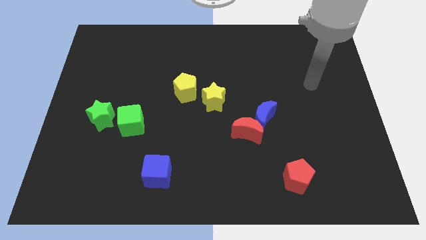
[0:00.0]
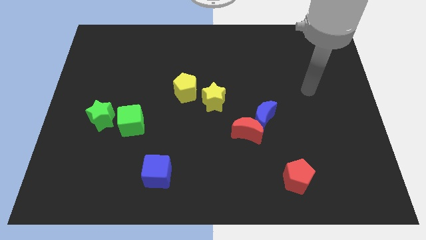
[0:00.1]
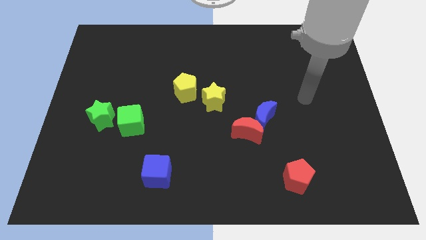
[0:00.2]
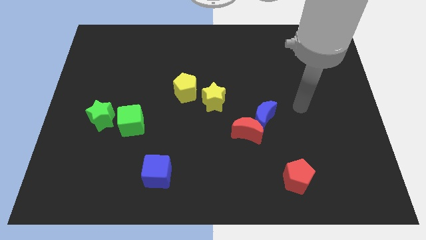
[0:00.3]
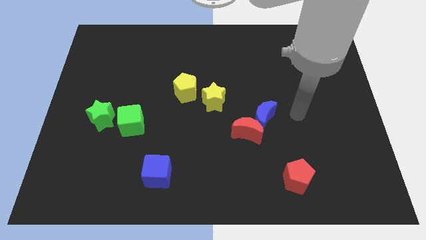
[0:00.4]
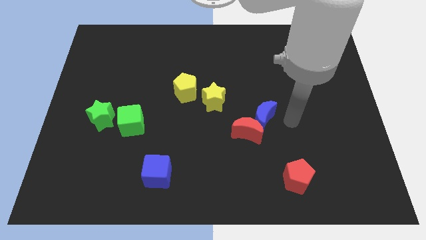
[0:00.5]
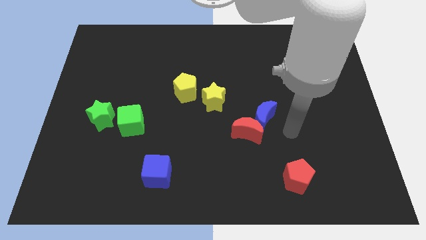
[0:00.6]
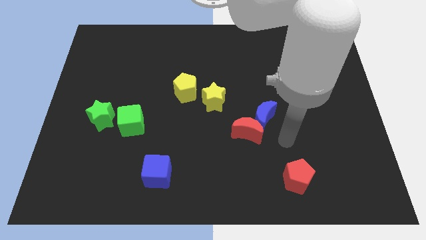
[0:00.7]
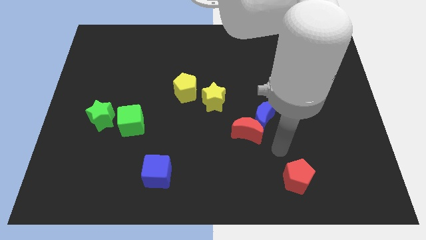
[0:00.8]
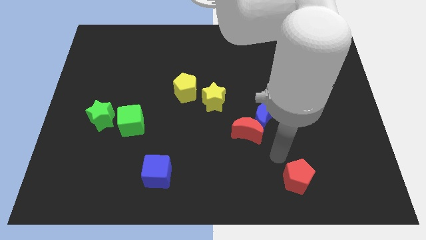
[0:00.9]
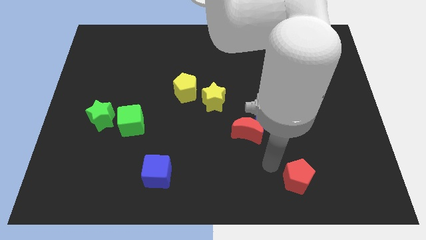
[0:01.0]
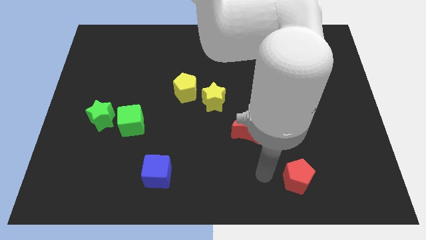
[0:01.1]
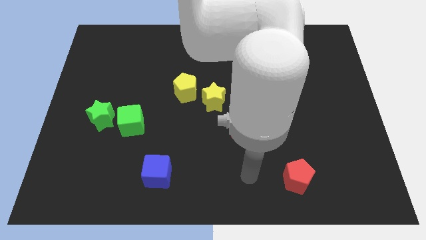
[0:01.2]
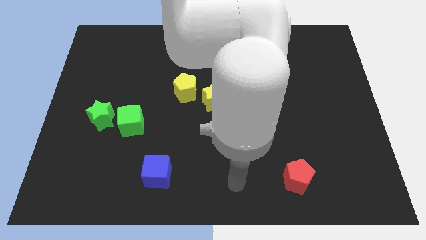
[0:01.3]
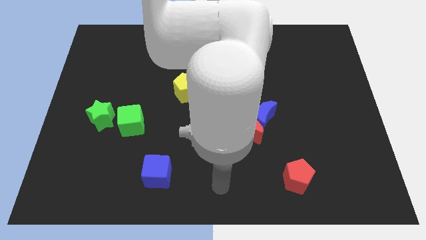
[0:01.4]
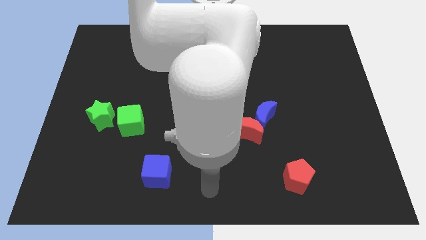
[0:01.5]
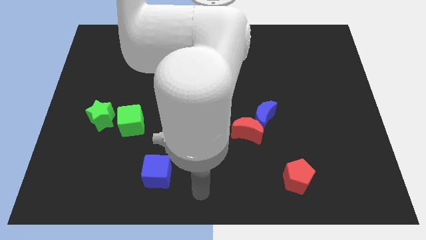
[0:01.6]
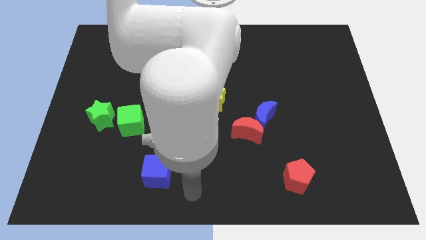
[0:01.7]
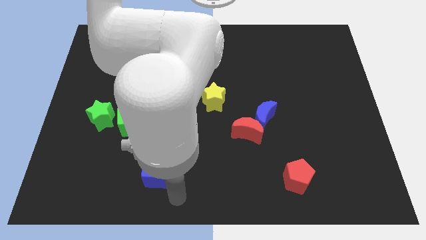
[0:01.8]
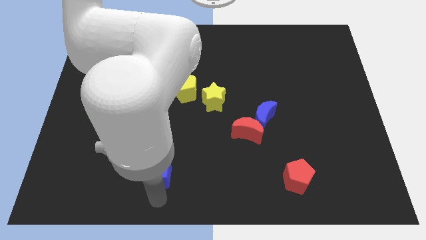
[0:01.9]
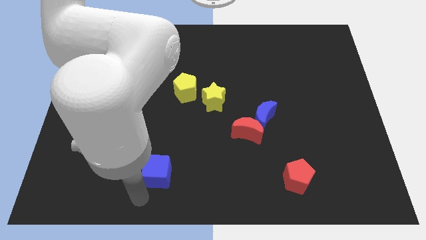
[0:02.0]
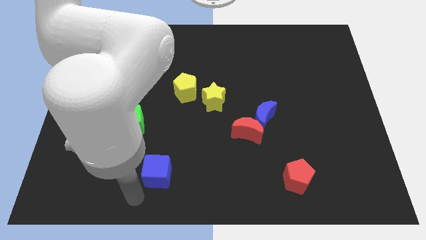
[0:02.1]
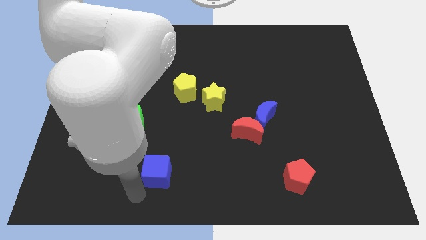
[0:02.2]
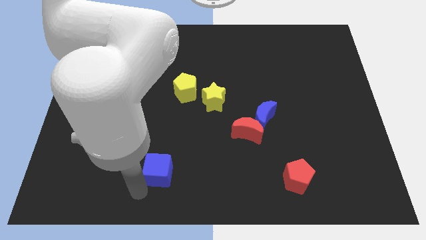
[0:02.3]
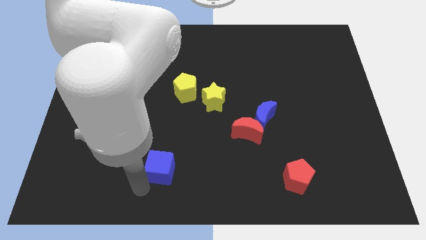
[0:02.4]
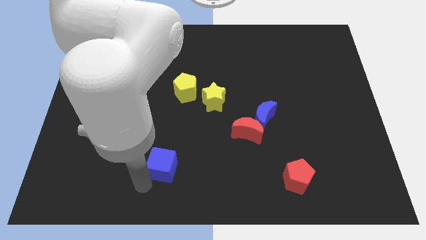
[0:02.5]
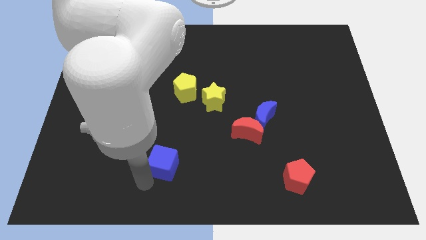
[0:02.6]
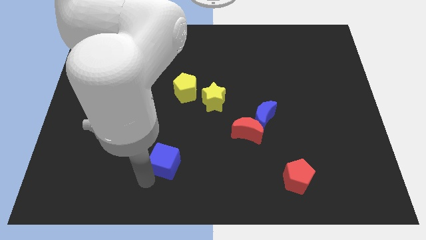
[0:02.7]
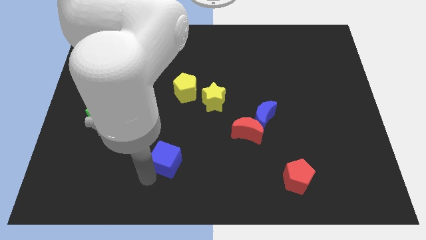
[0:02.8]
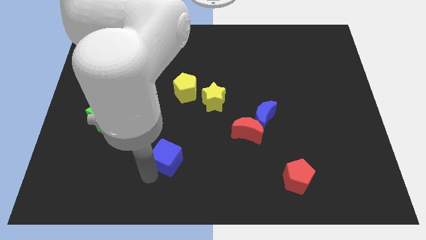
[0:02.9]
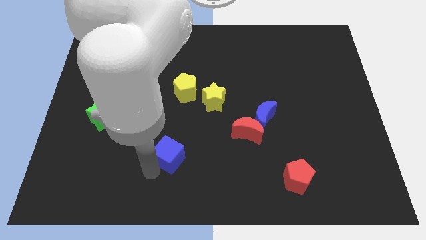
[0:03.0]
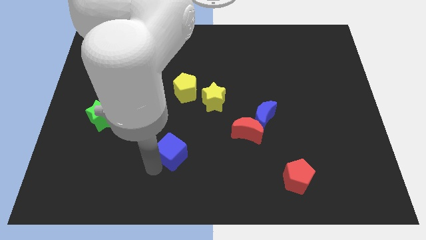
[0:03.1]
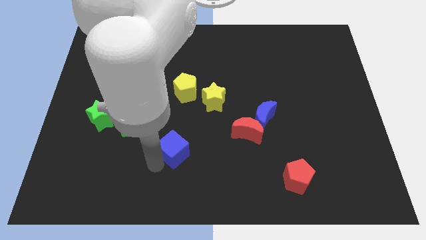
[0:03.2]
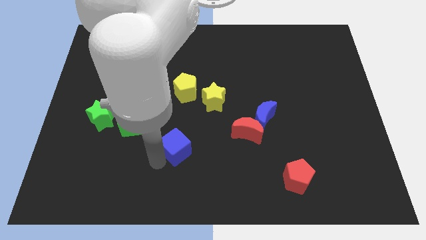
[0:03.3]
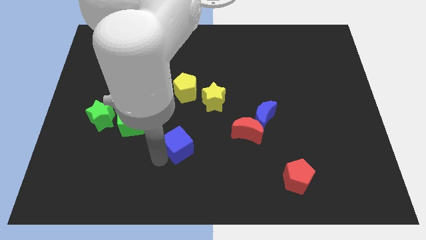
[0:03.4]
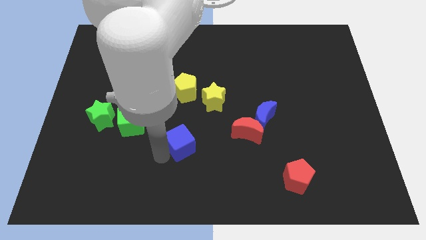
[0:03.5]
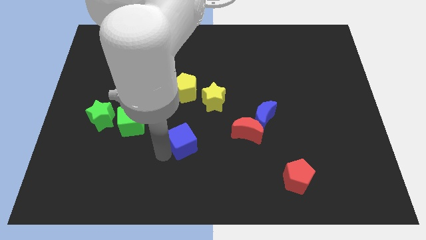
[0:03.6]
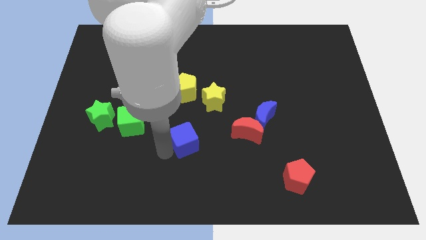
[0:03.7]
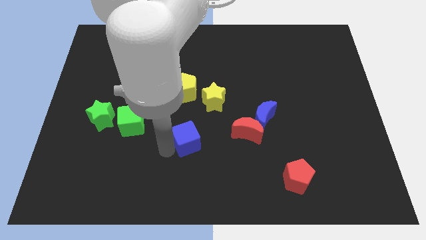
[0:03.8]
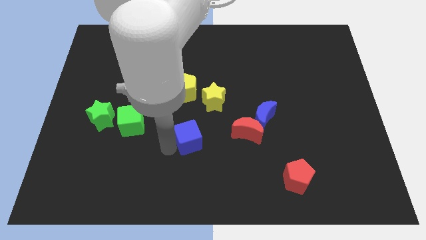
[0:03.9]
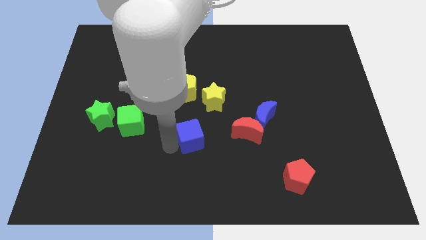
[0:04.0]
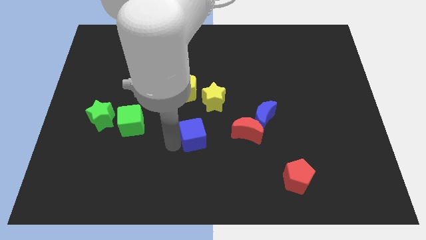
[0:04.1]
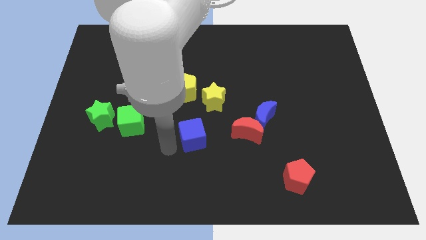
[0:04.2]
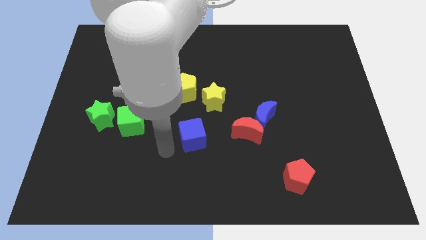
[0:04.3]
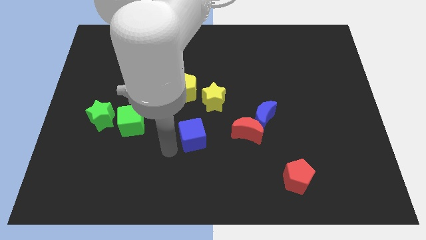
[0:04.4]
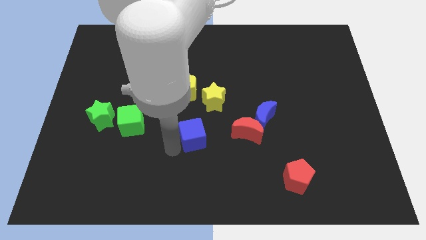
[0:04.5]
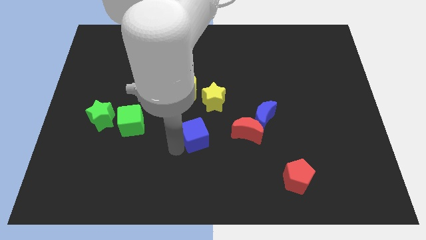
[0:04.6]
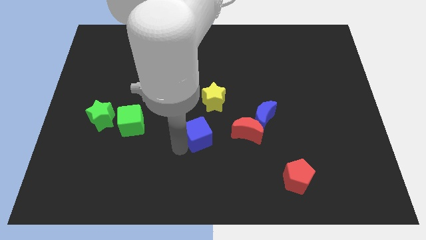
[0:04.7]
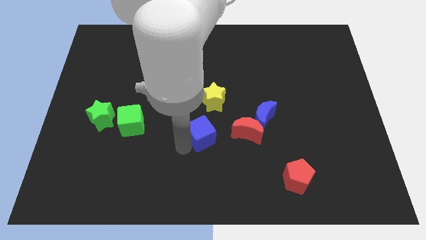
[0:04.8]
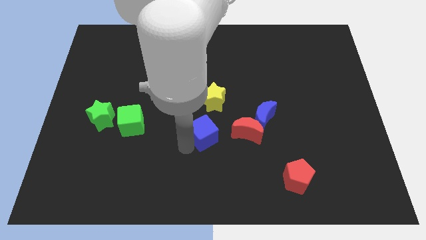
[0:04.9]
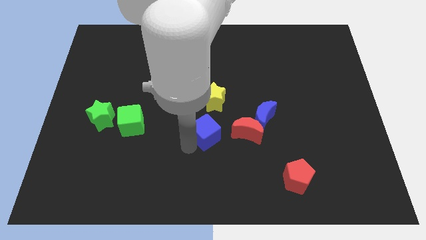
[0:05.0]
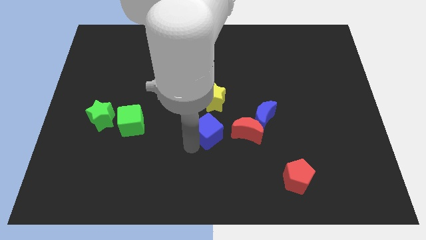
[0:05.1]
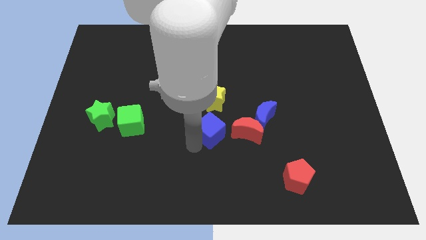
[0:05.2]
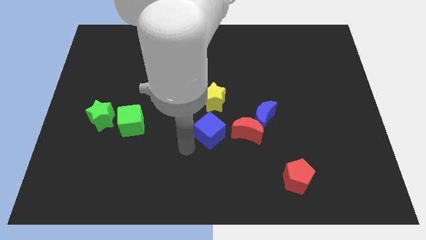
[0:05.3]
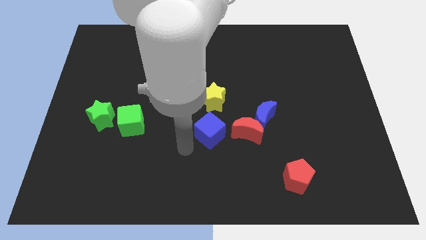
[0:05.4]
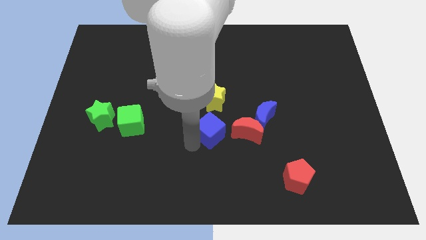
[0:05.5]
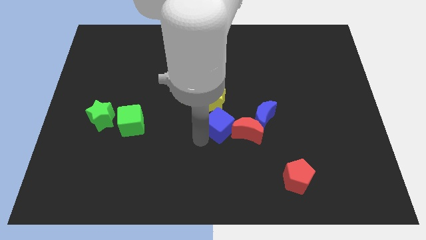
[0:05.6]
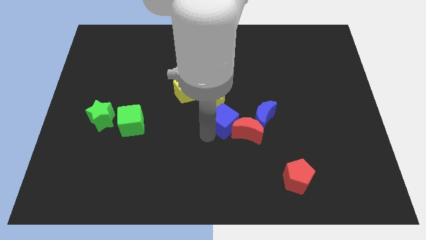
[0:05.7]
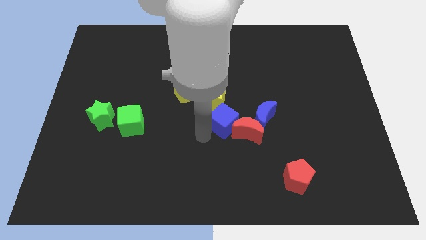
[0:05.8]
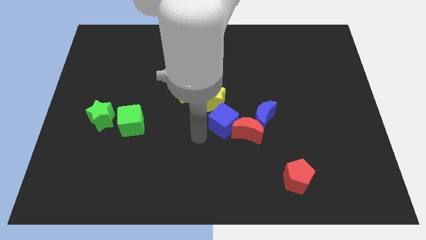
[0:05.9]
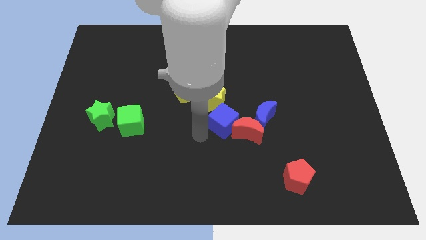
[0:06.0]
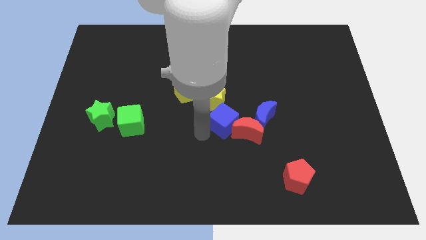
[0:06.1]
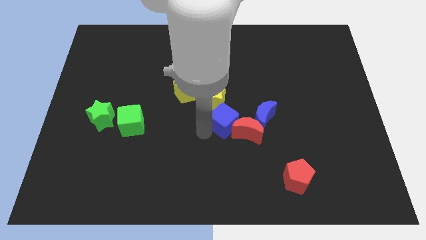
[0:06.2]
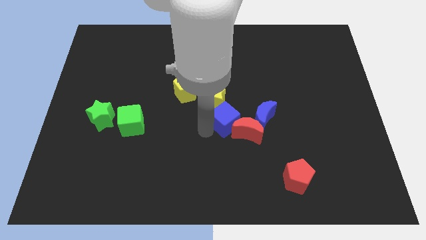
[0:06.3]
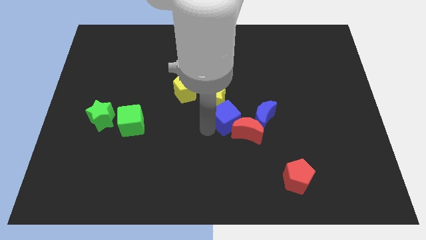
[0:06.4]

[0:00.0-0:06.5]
move the blue cube diagonally up and right

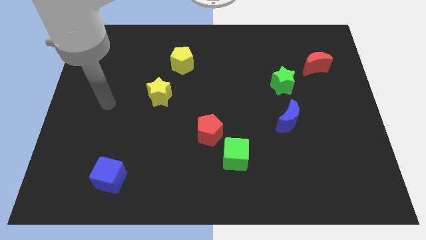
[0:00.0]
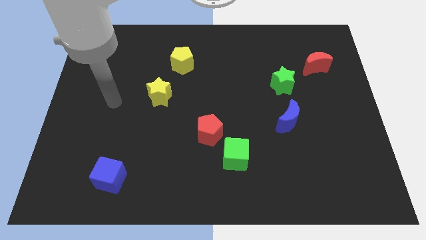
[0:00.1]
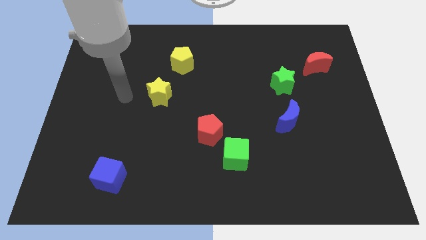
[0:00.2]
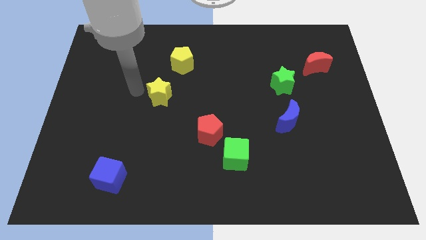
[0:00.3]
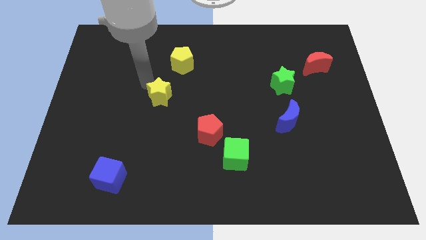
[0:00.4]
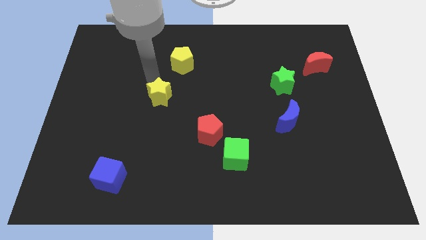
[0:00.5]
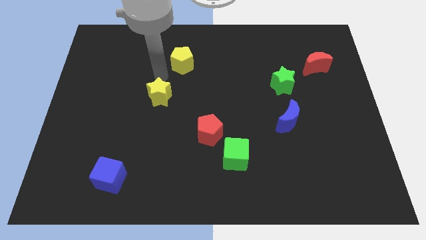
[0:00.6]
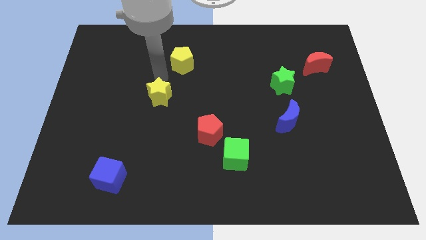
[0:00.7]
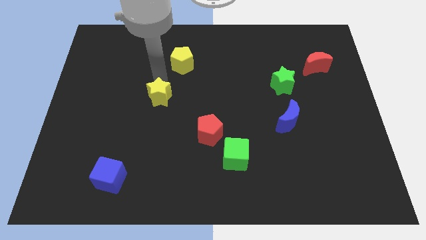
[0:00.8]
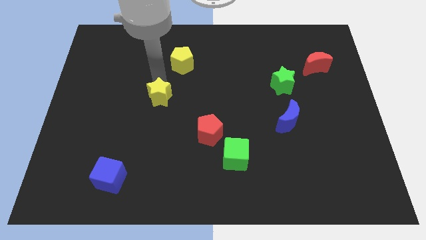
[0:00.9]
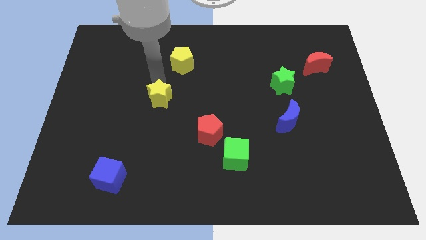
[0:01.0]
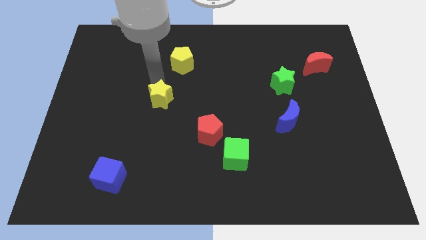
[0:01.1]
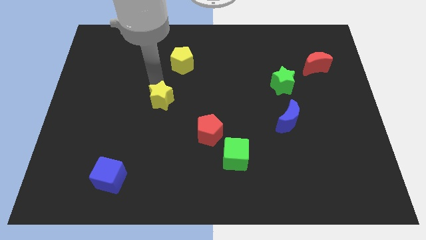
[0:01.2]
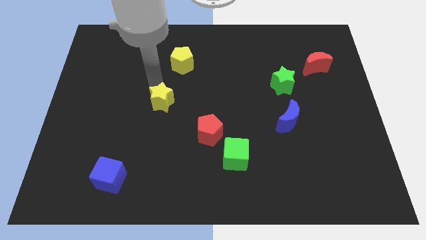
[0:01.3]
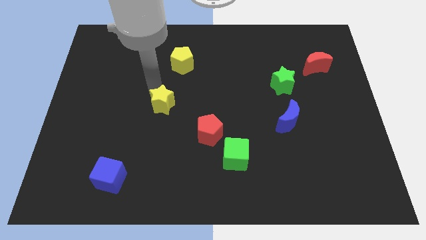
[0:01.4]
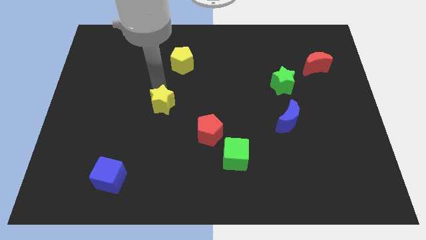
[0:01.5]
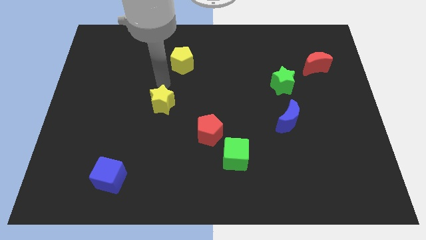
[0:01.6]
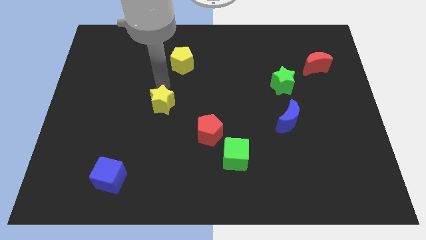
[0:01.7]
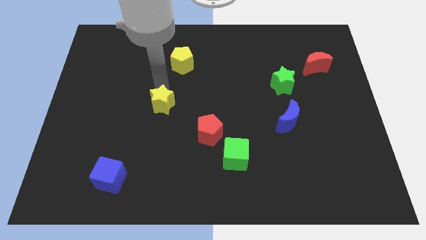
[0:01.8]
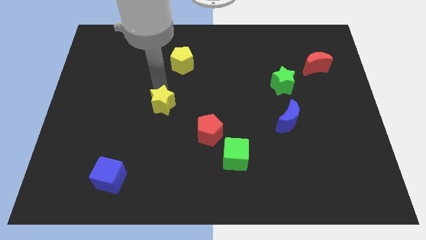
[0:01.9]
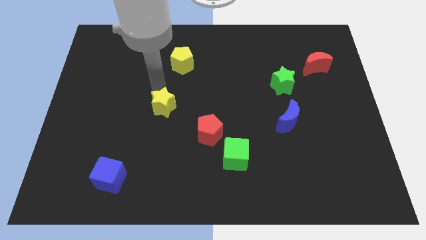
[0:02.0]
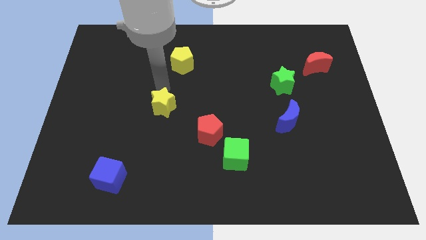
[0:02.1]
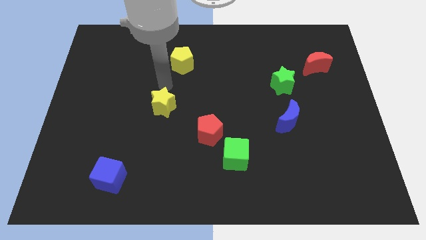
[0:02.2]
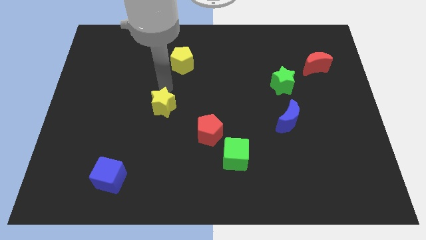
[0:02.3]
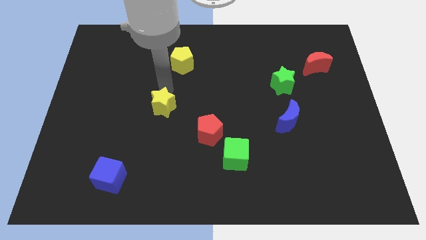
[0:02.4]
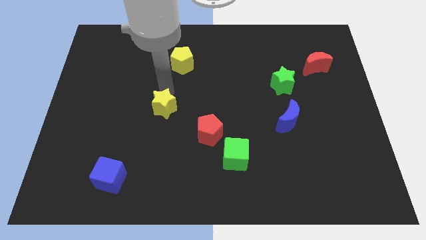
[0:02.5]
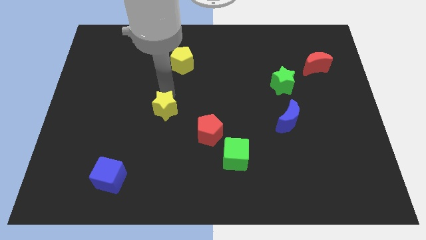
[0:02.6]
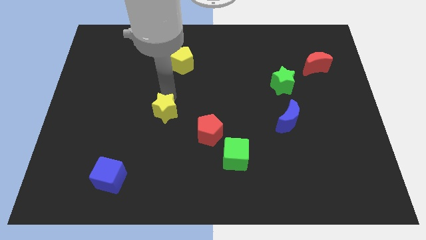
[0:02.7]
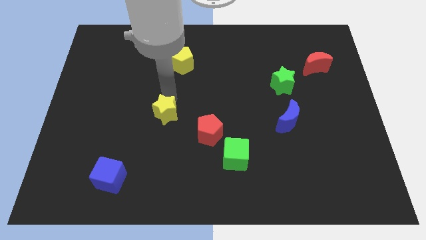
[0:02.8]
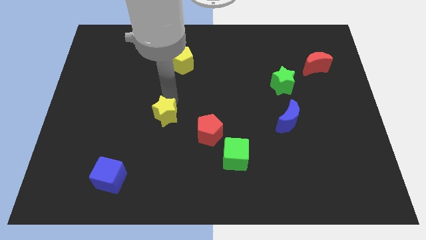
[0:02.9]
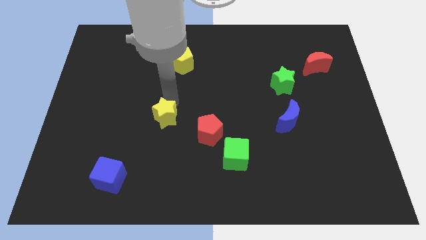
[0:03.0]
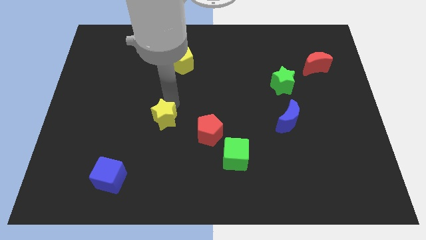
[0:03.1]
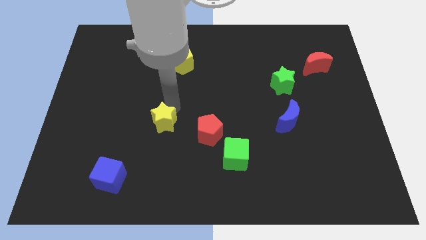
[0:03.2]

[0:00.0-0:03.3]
move the yellow star downwards somewhat
